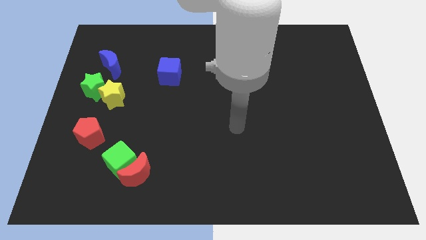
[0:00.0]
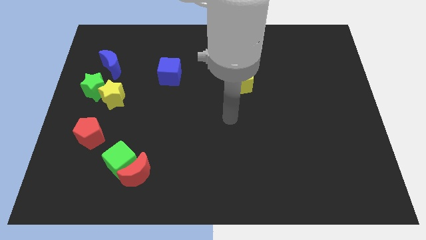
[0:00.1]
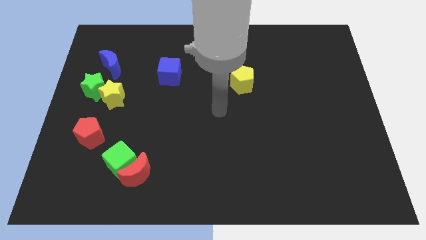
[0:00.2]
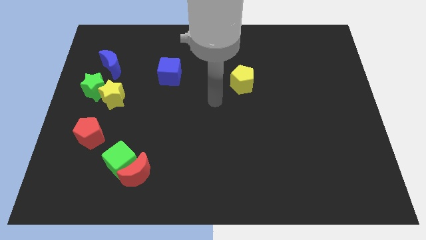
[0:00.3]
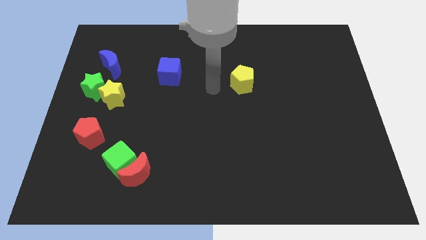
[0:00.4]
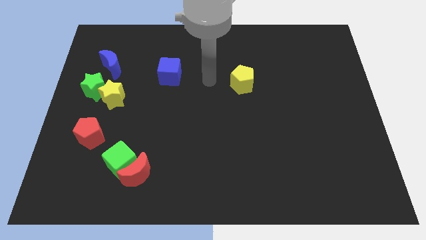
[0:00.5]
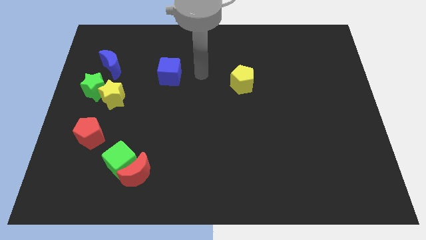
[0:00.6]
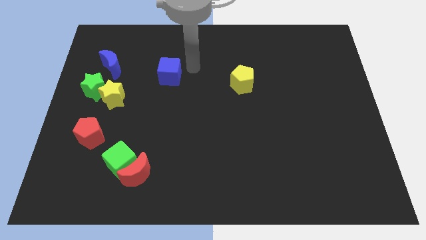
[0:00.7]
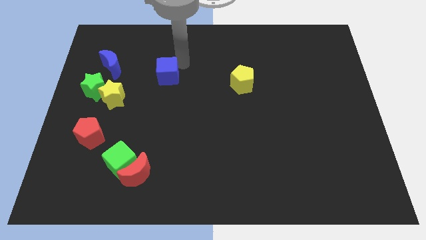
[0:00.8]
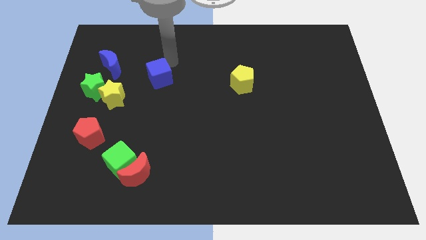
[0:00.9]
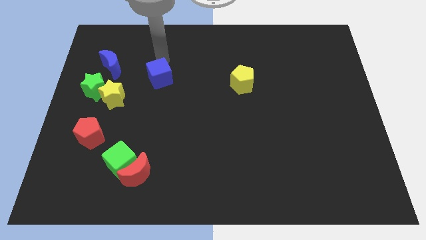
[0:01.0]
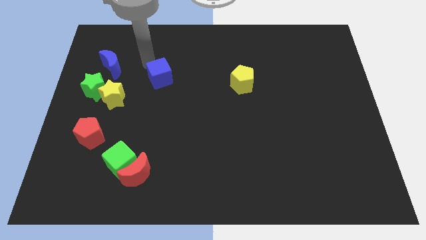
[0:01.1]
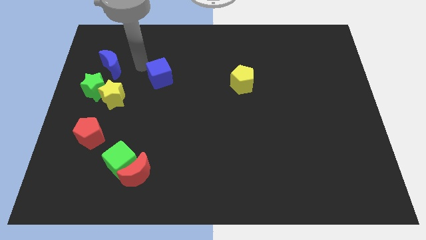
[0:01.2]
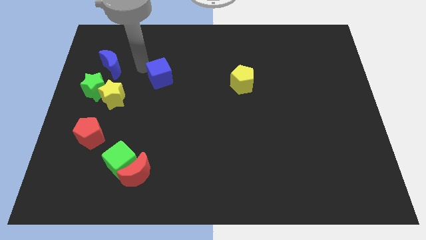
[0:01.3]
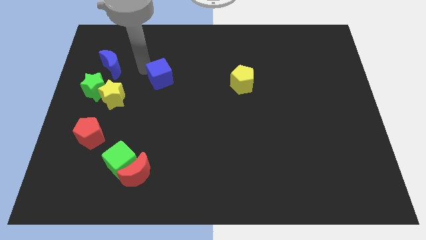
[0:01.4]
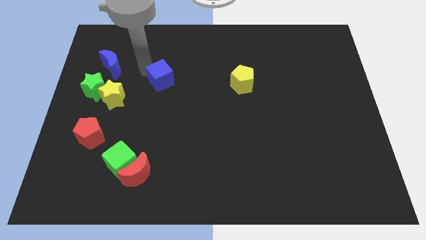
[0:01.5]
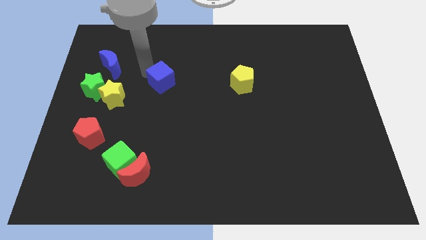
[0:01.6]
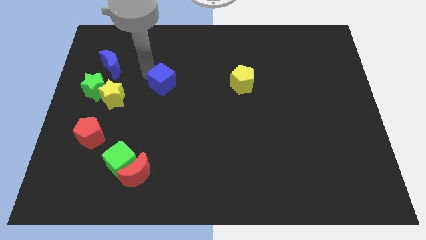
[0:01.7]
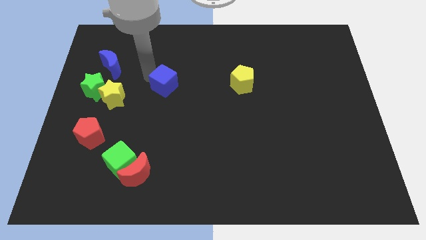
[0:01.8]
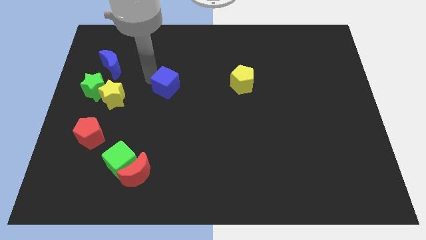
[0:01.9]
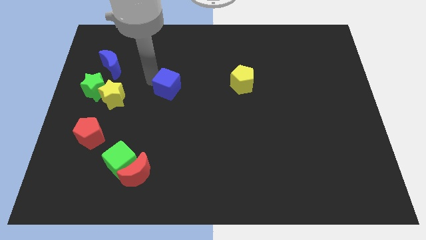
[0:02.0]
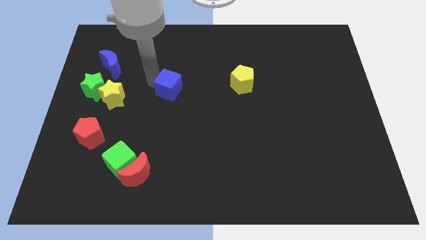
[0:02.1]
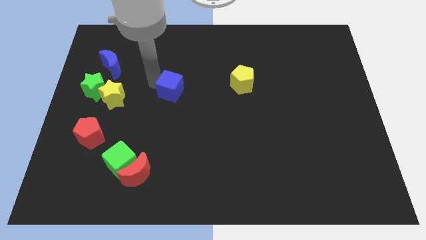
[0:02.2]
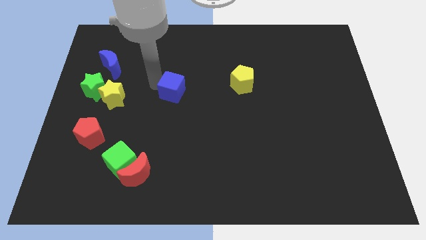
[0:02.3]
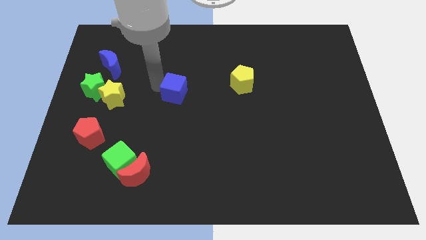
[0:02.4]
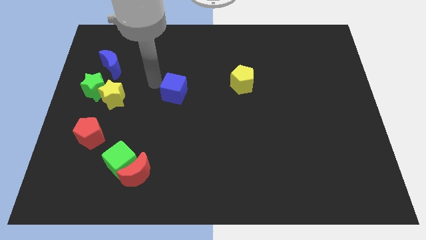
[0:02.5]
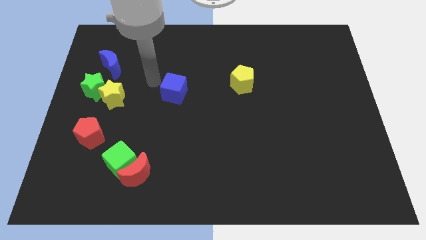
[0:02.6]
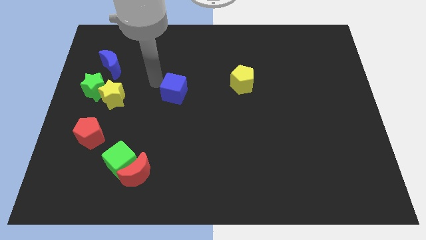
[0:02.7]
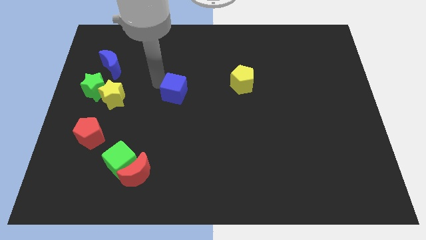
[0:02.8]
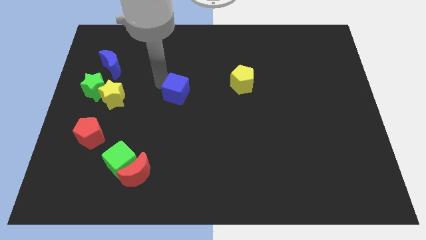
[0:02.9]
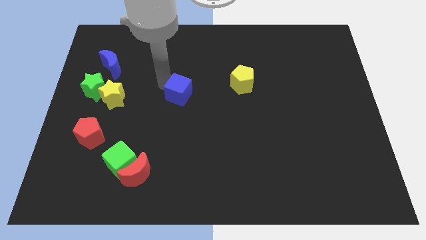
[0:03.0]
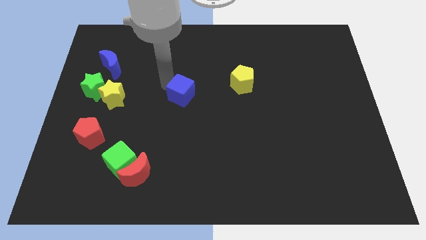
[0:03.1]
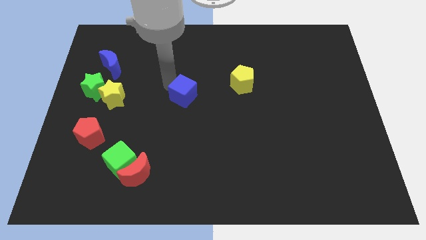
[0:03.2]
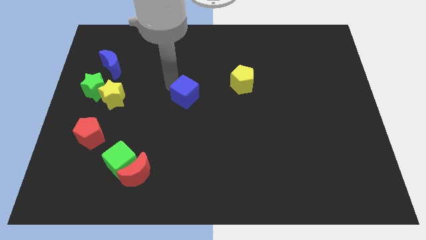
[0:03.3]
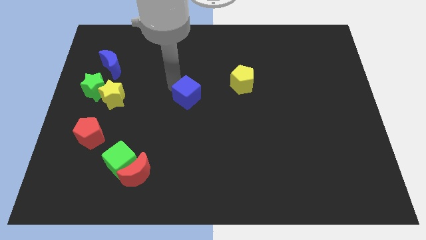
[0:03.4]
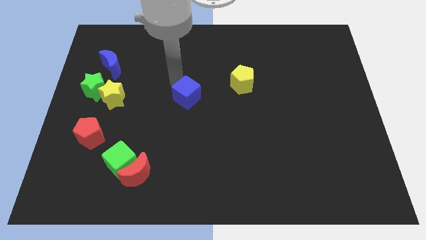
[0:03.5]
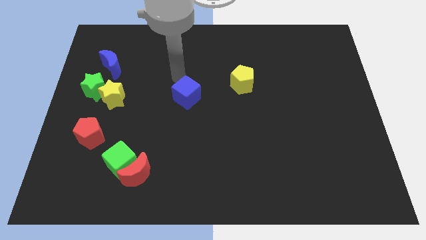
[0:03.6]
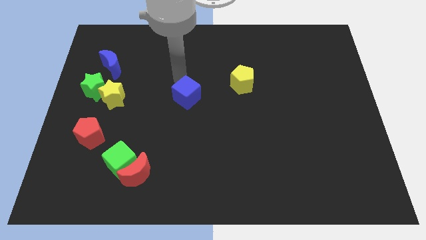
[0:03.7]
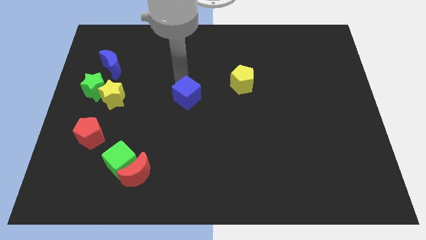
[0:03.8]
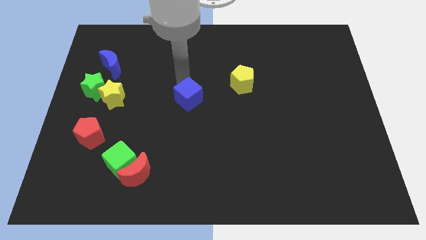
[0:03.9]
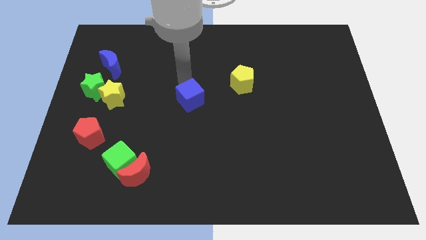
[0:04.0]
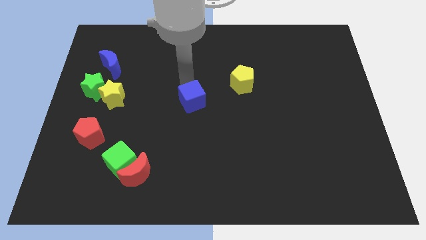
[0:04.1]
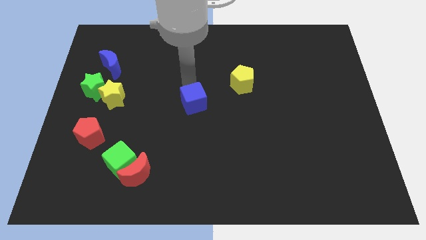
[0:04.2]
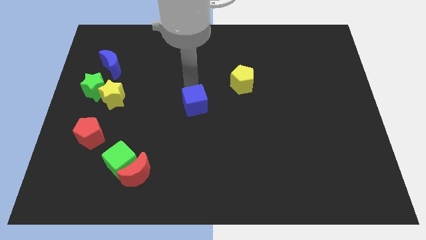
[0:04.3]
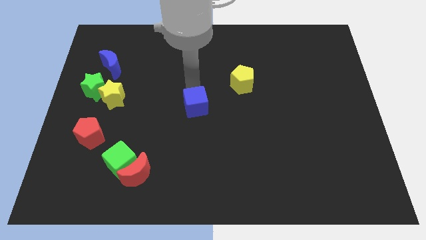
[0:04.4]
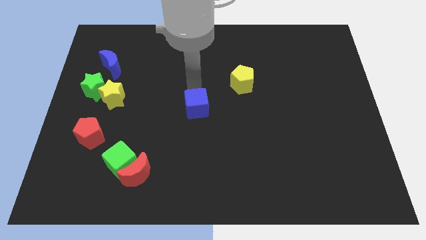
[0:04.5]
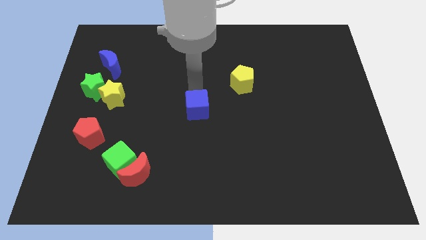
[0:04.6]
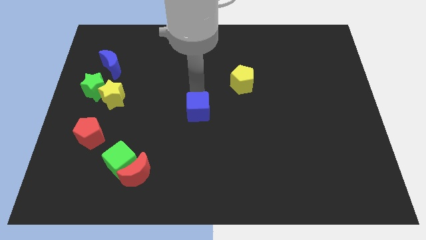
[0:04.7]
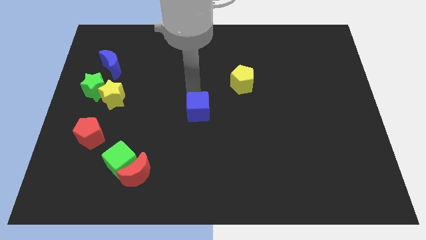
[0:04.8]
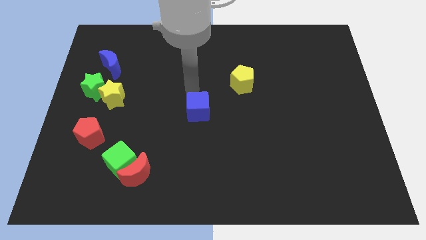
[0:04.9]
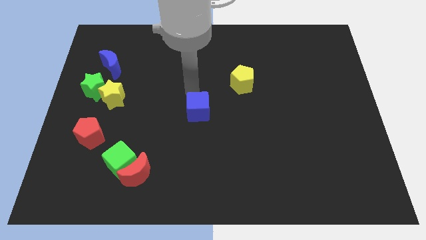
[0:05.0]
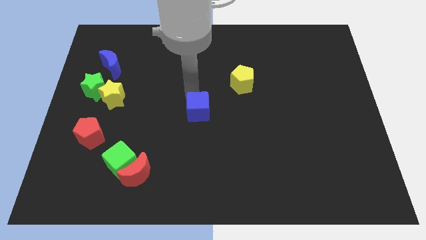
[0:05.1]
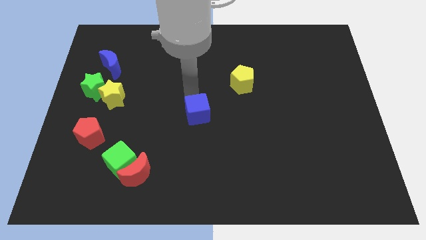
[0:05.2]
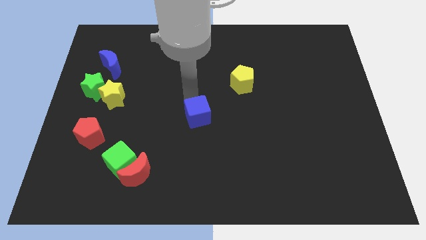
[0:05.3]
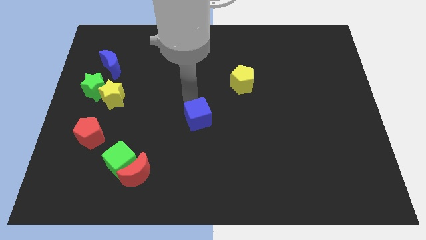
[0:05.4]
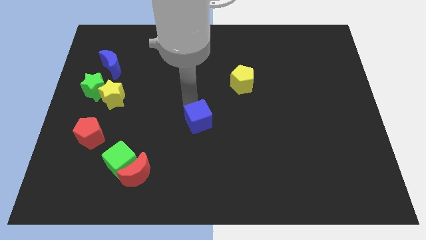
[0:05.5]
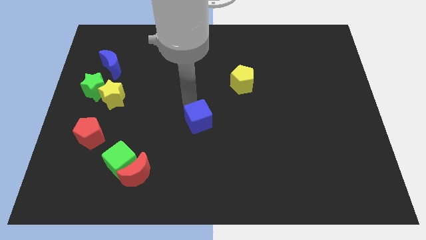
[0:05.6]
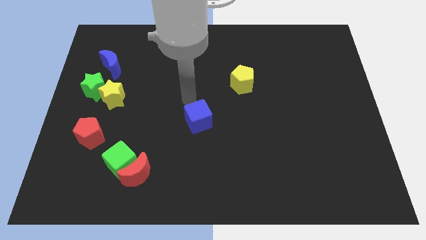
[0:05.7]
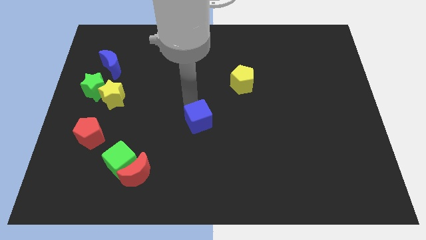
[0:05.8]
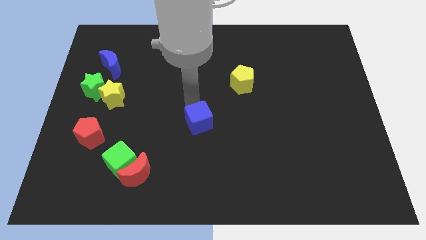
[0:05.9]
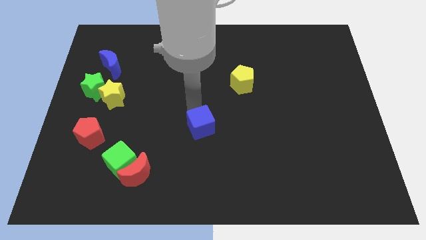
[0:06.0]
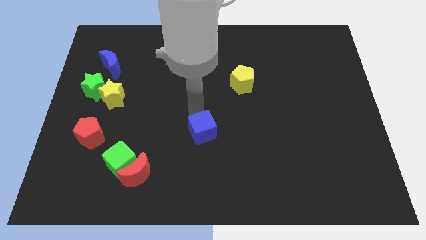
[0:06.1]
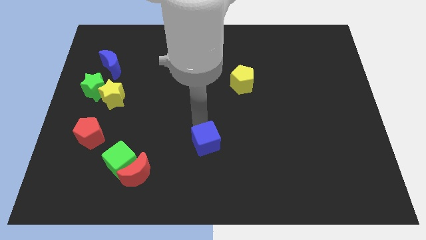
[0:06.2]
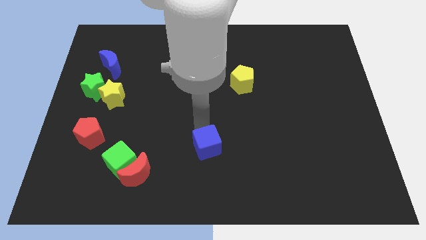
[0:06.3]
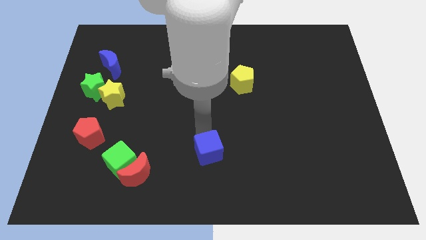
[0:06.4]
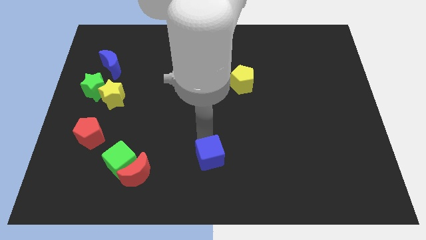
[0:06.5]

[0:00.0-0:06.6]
slide the blue cube to the bottom side
